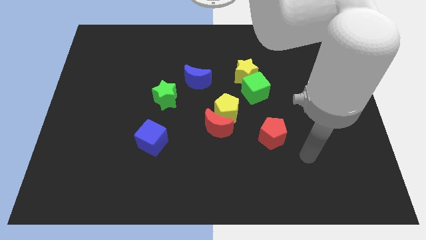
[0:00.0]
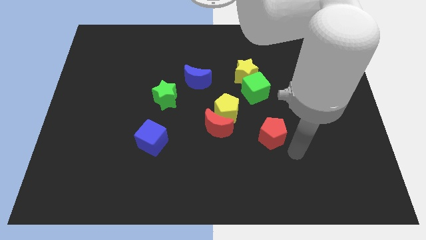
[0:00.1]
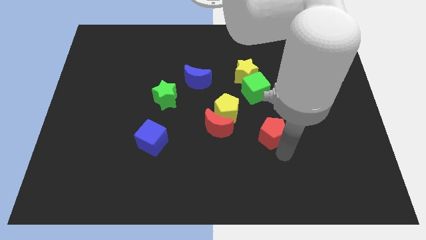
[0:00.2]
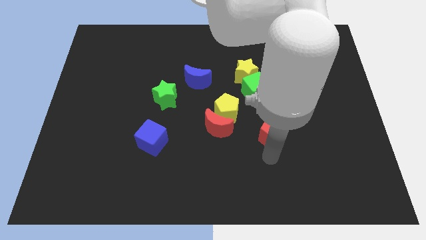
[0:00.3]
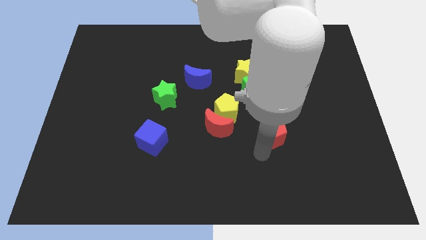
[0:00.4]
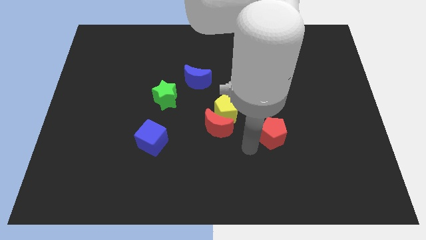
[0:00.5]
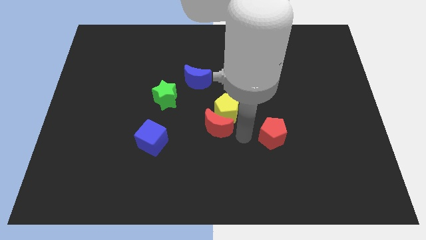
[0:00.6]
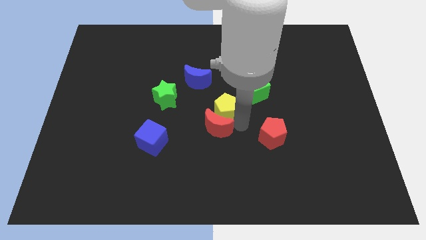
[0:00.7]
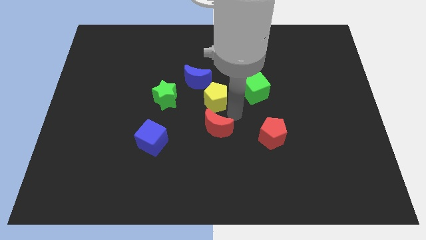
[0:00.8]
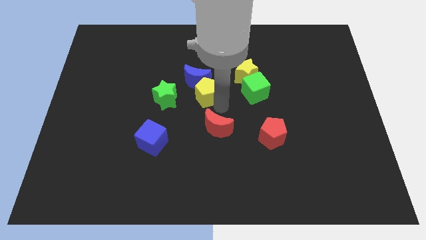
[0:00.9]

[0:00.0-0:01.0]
pull the red moon apart from the yellow pentagon

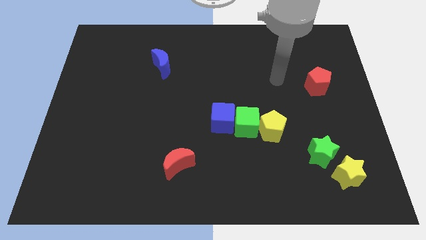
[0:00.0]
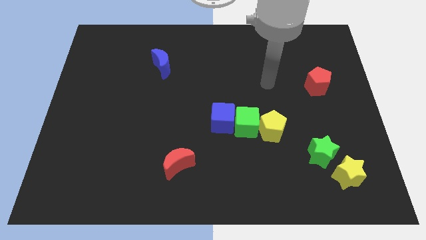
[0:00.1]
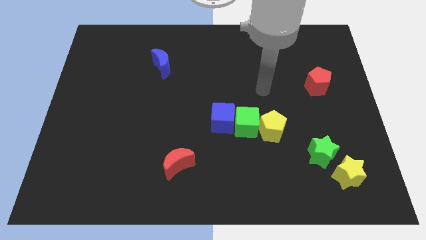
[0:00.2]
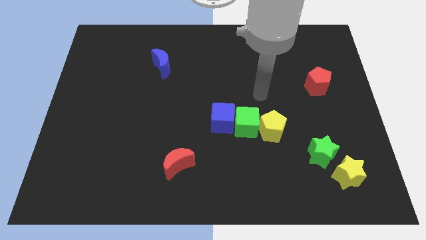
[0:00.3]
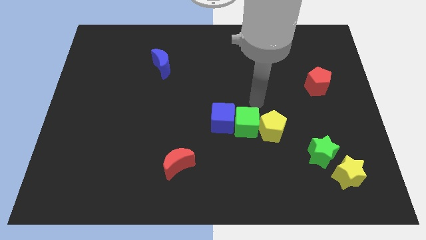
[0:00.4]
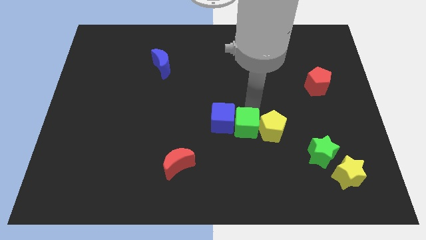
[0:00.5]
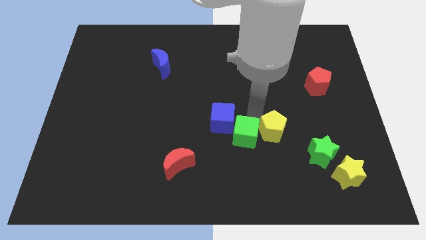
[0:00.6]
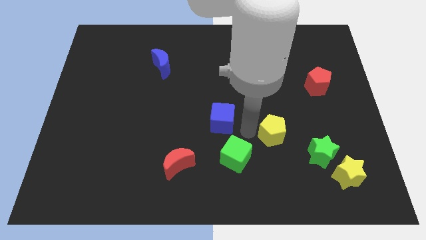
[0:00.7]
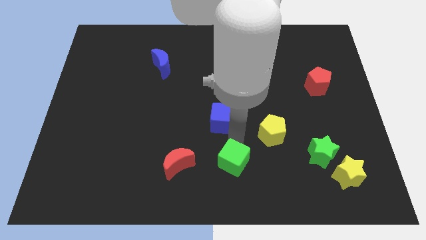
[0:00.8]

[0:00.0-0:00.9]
move the blue cube away from the green cube

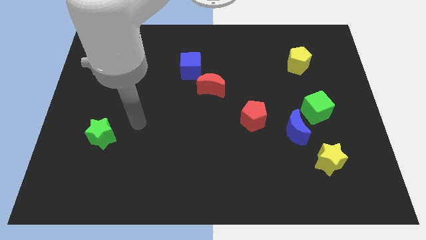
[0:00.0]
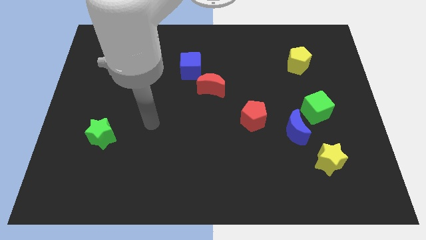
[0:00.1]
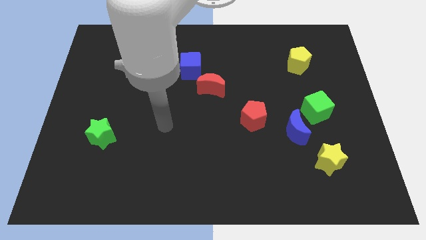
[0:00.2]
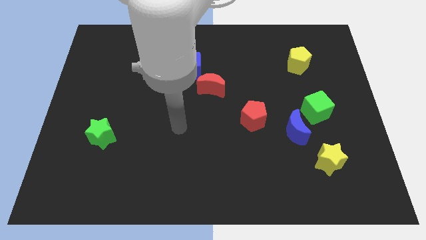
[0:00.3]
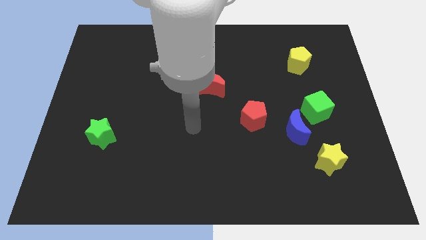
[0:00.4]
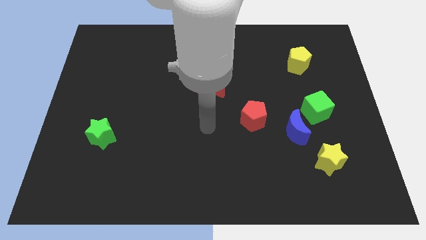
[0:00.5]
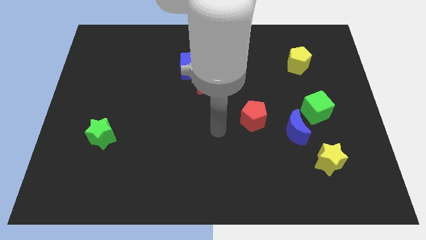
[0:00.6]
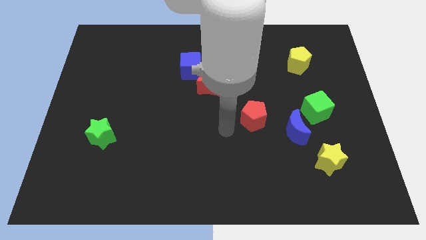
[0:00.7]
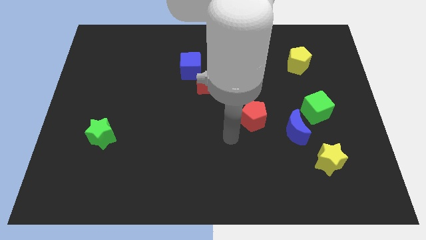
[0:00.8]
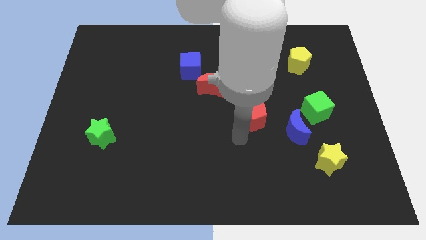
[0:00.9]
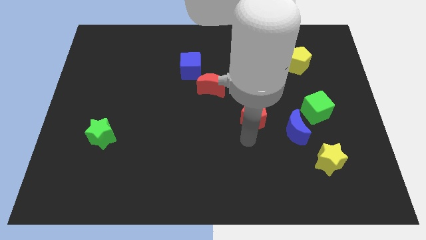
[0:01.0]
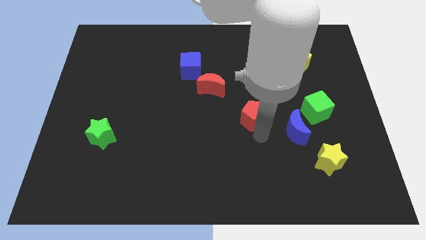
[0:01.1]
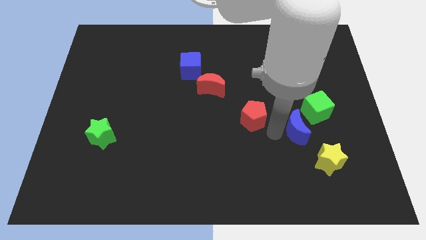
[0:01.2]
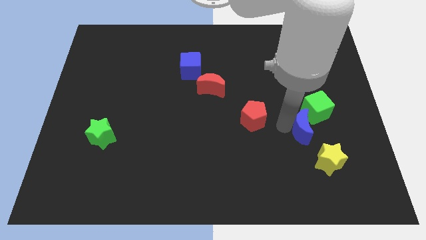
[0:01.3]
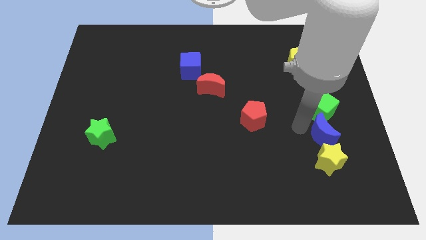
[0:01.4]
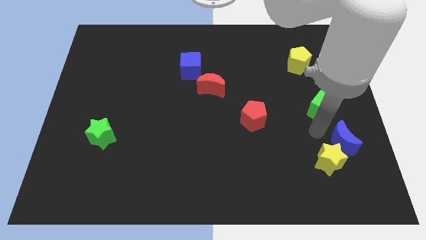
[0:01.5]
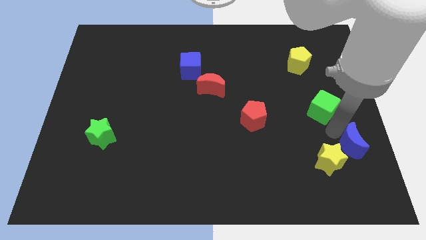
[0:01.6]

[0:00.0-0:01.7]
separate the green cube from the blue moon

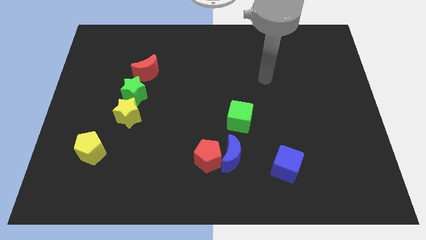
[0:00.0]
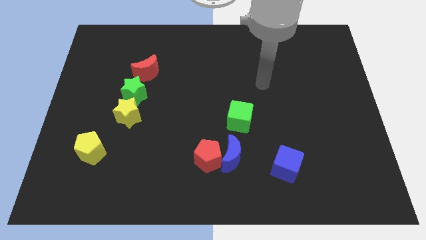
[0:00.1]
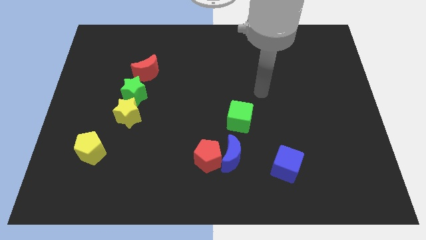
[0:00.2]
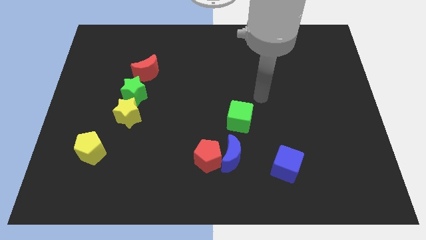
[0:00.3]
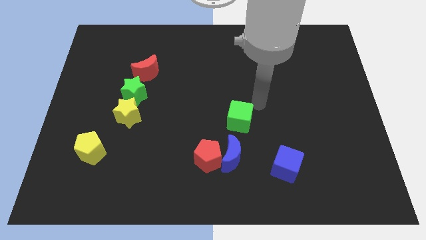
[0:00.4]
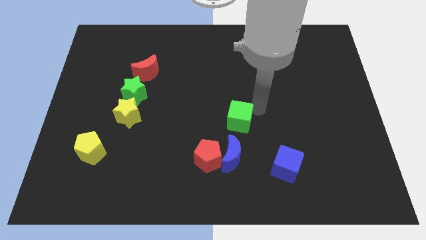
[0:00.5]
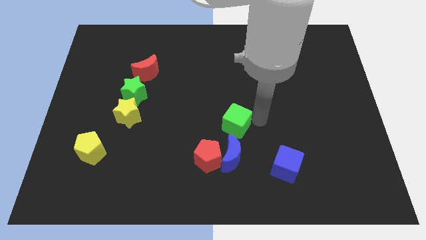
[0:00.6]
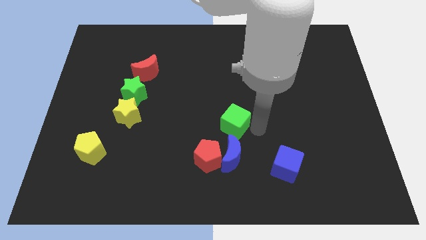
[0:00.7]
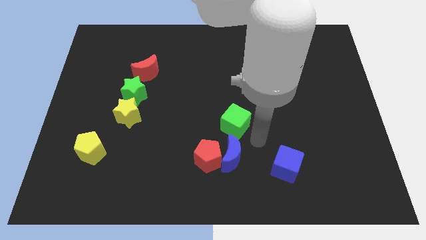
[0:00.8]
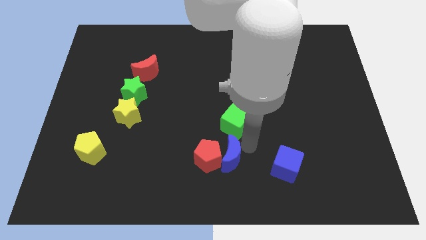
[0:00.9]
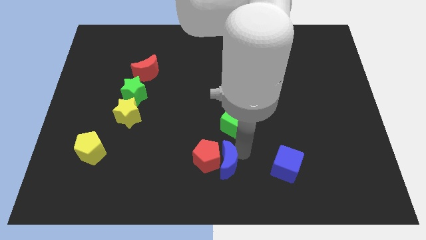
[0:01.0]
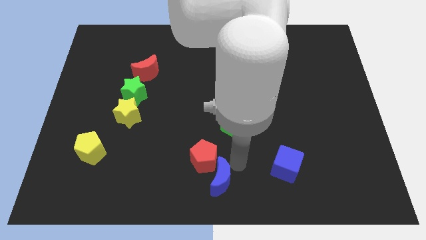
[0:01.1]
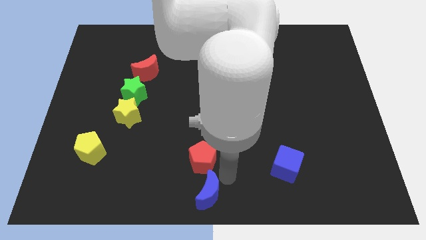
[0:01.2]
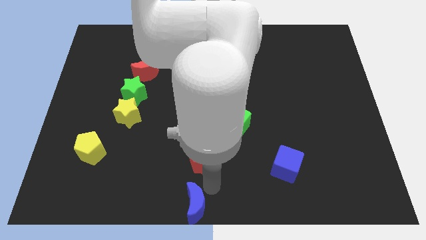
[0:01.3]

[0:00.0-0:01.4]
separate the red pentagon from the blue moon

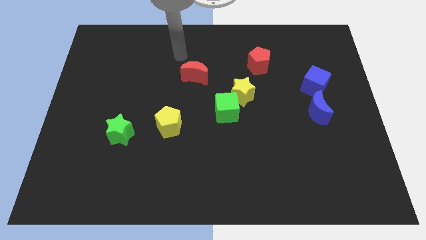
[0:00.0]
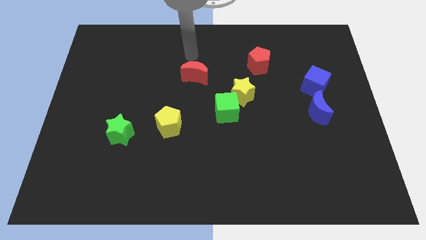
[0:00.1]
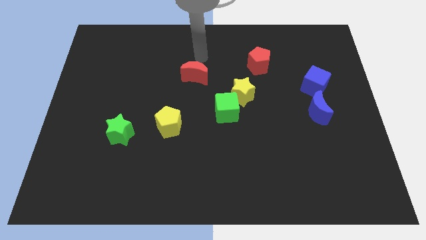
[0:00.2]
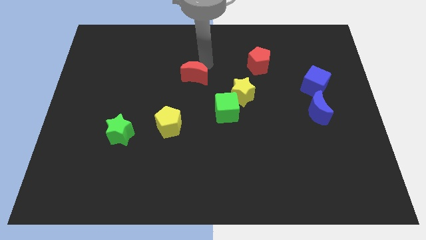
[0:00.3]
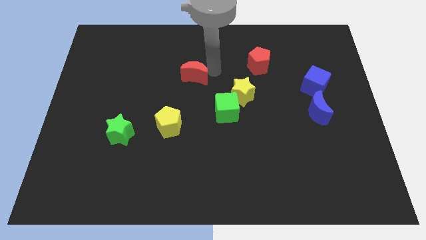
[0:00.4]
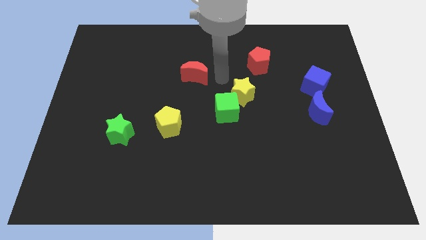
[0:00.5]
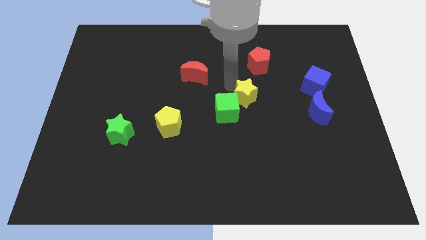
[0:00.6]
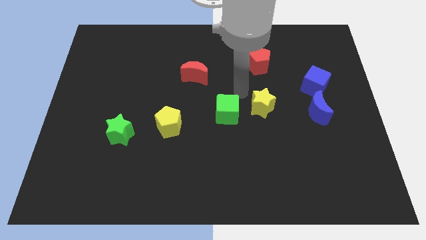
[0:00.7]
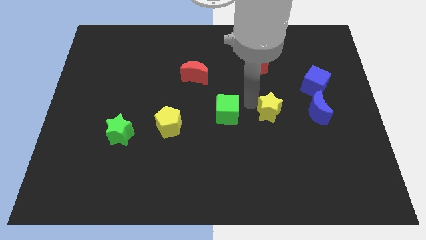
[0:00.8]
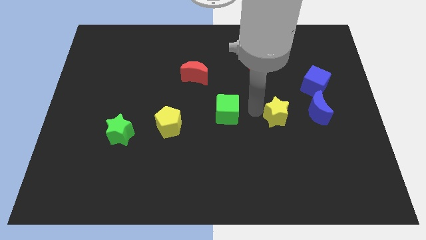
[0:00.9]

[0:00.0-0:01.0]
separate the green cube from the yellow star

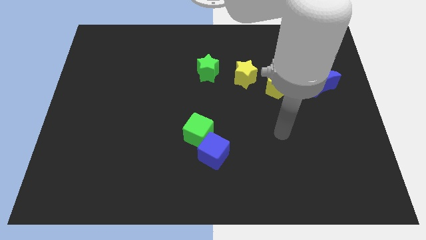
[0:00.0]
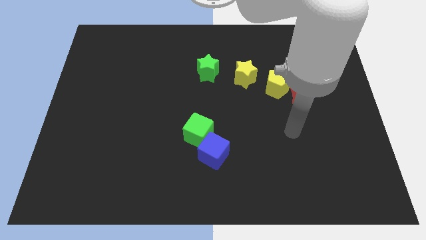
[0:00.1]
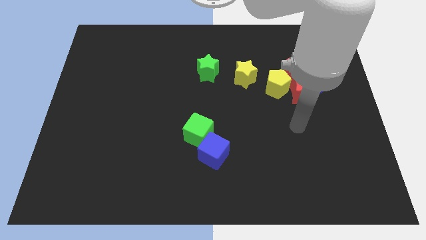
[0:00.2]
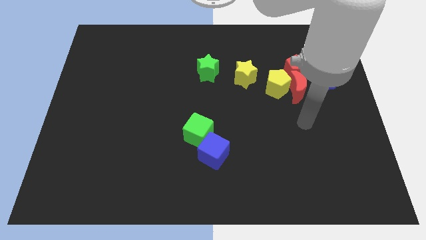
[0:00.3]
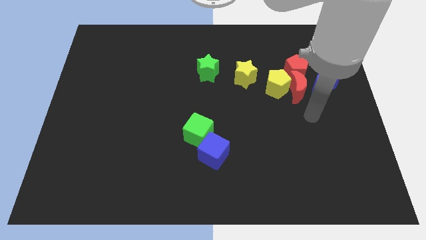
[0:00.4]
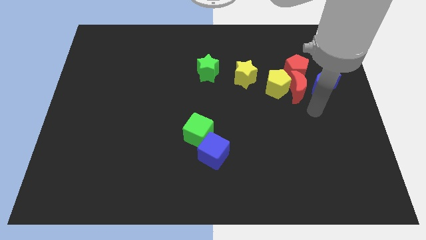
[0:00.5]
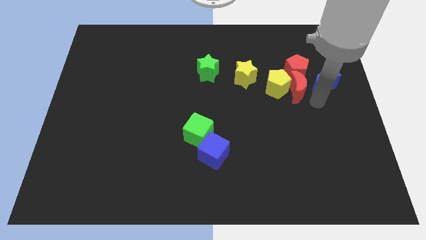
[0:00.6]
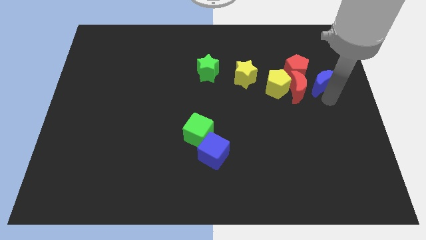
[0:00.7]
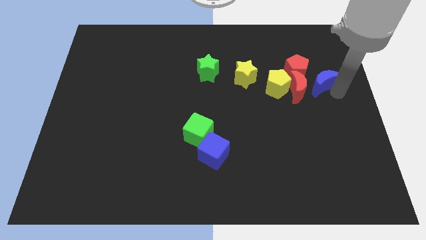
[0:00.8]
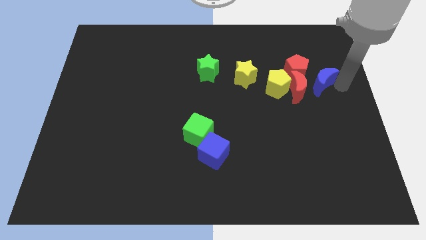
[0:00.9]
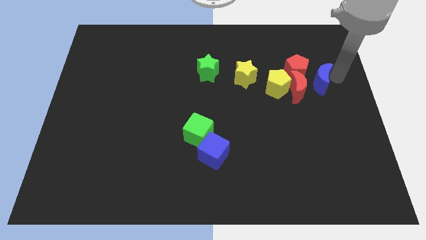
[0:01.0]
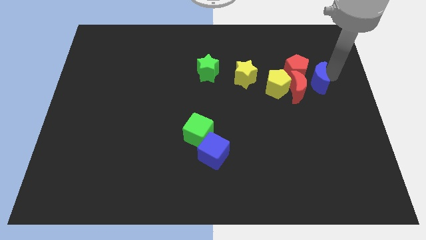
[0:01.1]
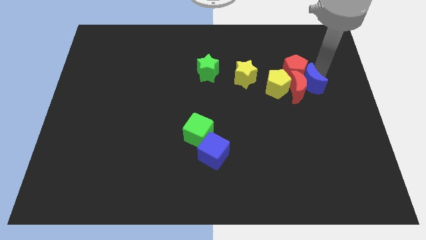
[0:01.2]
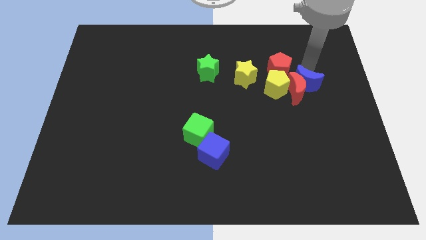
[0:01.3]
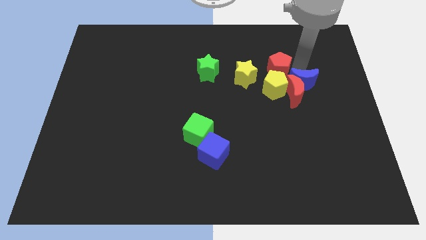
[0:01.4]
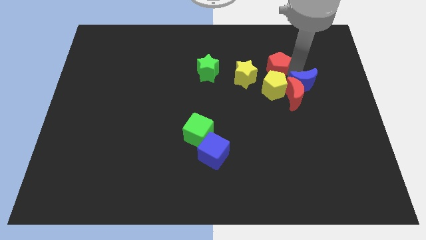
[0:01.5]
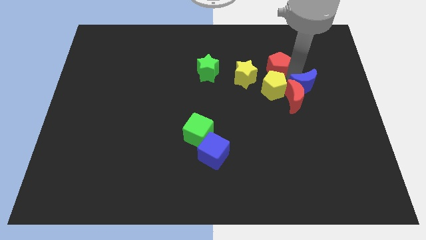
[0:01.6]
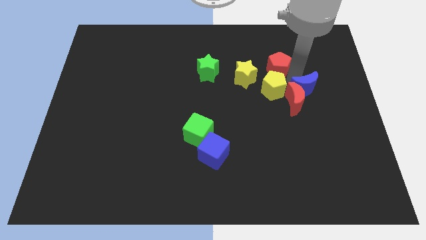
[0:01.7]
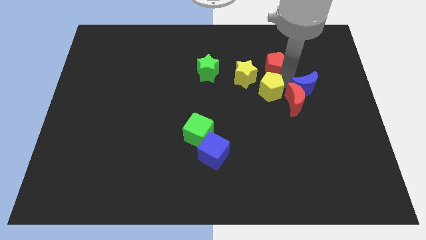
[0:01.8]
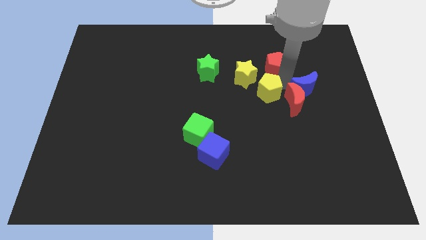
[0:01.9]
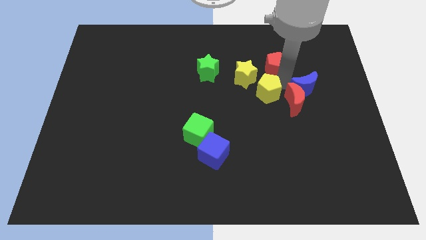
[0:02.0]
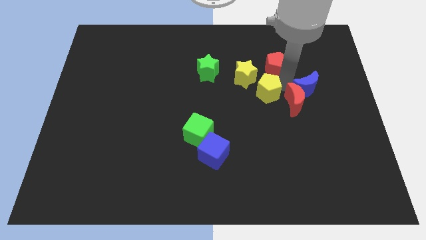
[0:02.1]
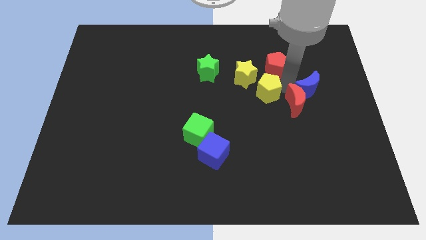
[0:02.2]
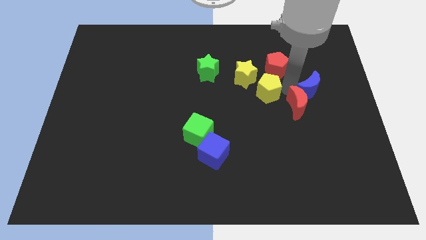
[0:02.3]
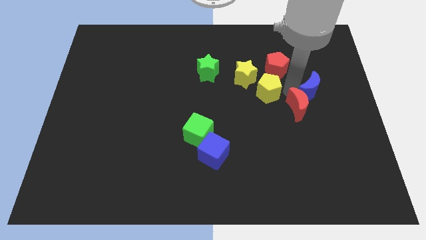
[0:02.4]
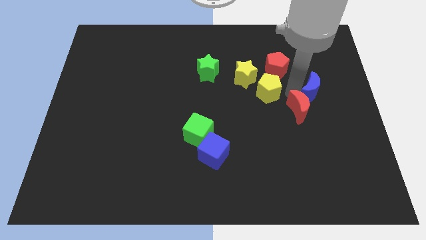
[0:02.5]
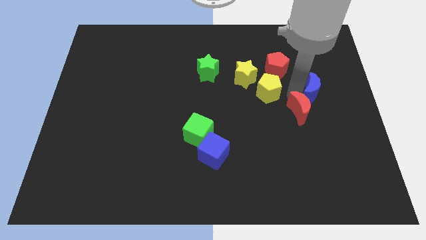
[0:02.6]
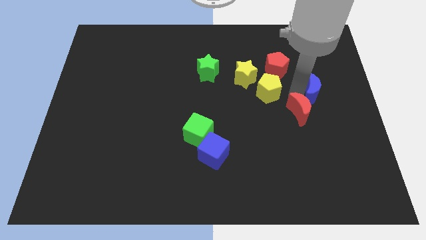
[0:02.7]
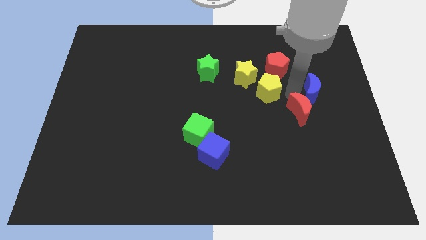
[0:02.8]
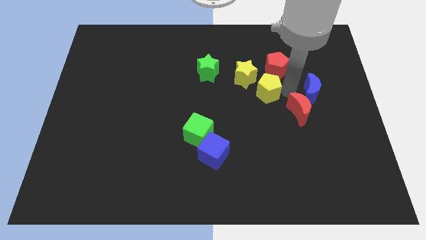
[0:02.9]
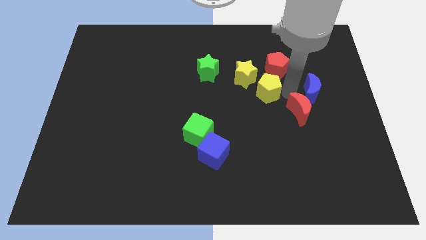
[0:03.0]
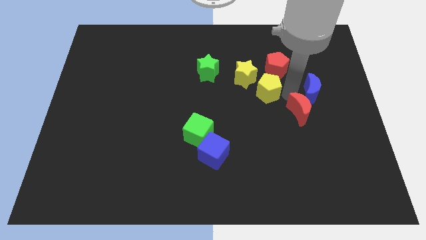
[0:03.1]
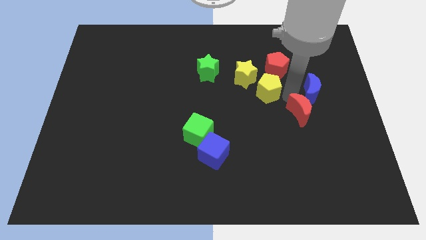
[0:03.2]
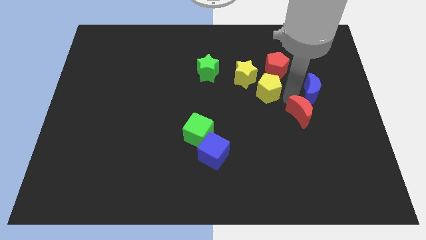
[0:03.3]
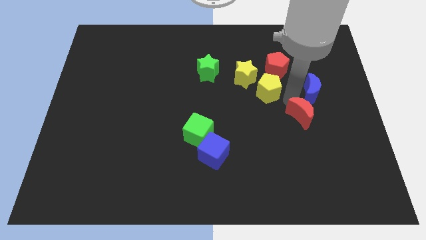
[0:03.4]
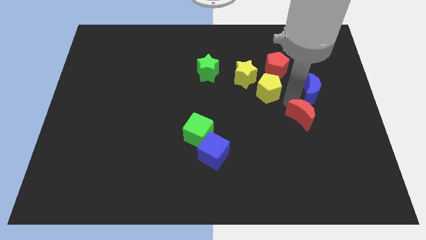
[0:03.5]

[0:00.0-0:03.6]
move the red moon away from the yellow pentagon, red pentagon, and blue moon
